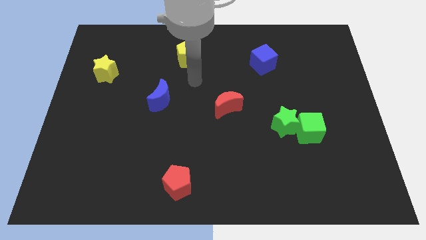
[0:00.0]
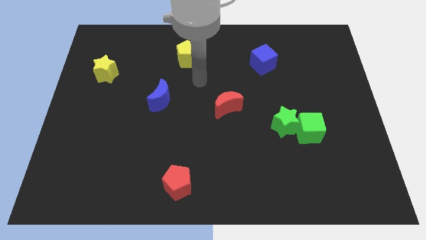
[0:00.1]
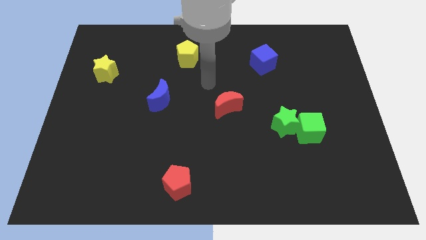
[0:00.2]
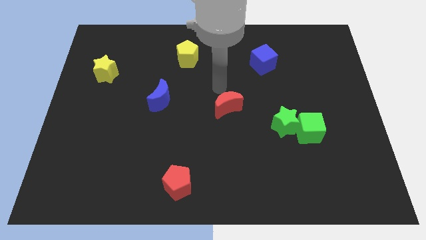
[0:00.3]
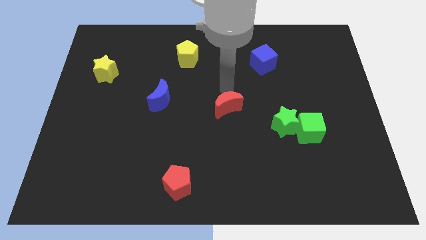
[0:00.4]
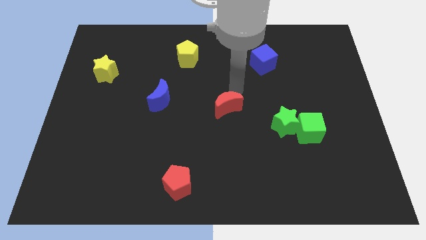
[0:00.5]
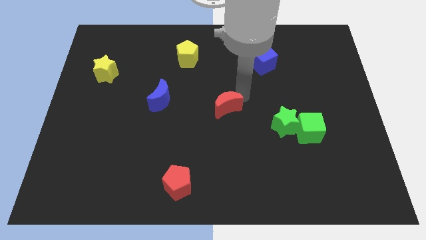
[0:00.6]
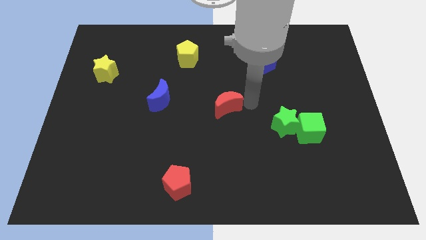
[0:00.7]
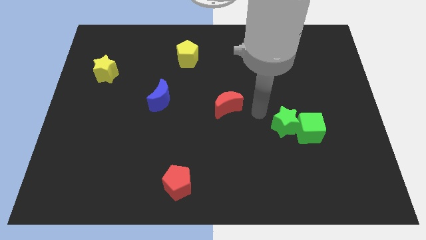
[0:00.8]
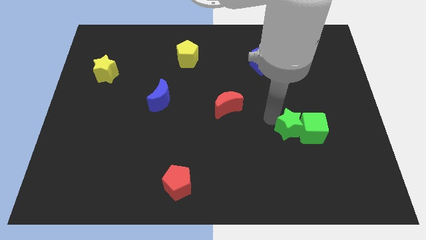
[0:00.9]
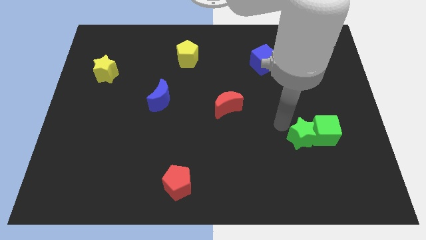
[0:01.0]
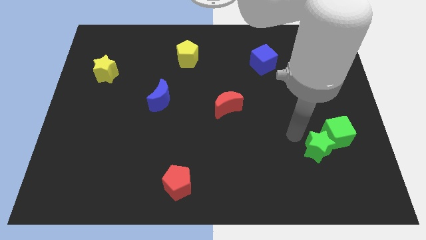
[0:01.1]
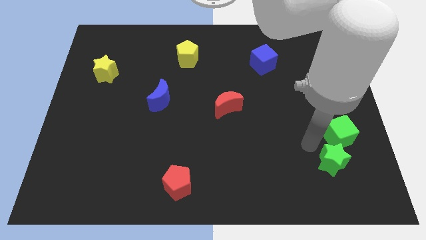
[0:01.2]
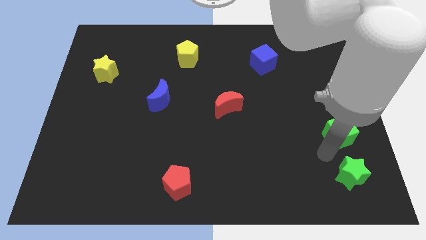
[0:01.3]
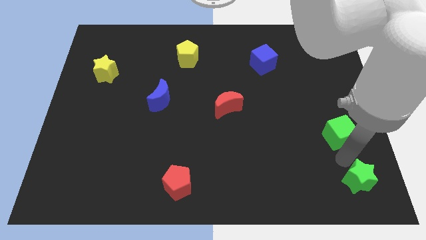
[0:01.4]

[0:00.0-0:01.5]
pull the green cube apart from the green star

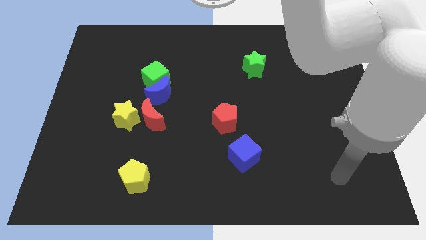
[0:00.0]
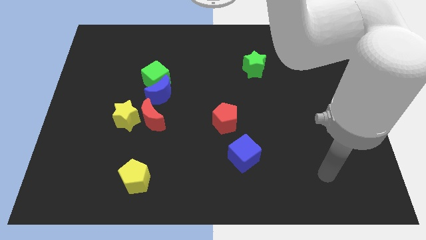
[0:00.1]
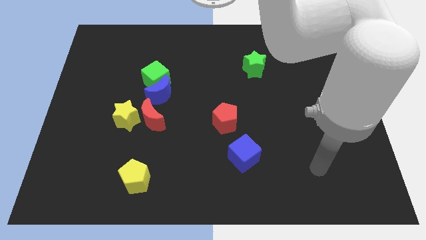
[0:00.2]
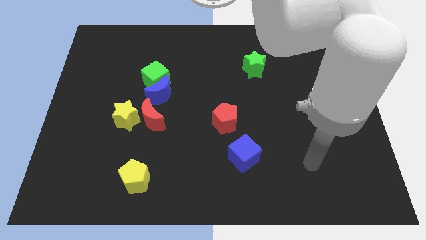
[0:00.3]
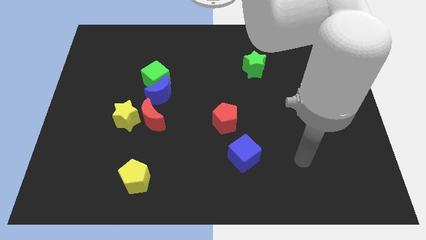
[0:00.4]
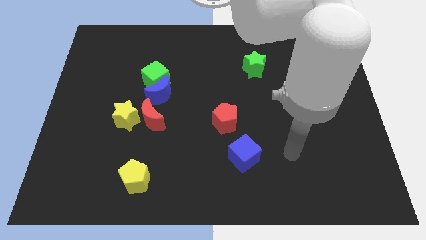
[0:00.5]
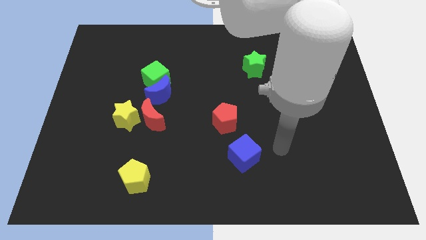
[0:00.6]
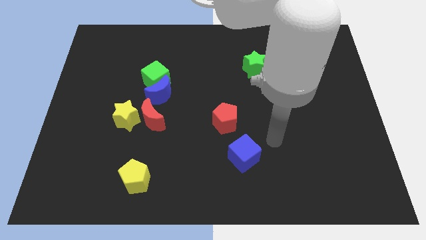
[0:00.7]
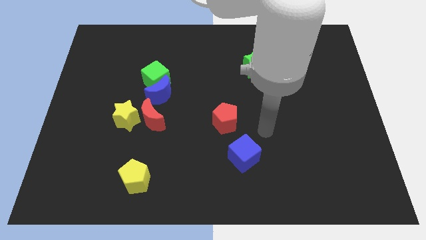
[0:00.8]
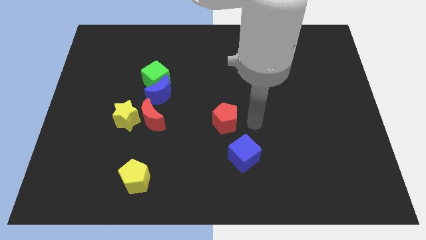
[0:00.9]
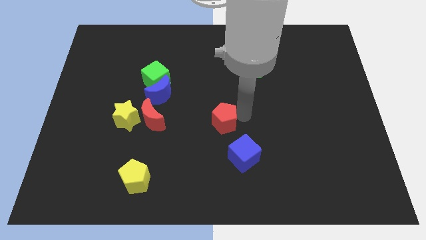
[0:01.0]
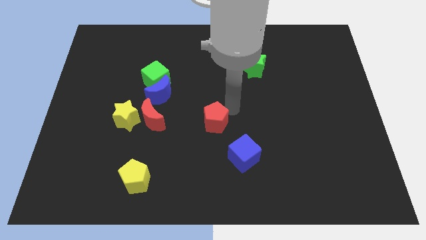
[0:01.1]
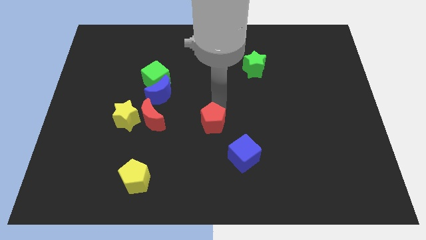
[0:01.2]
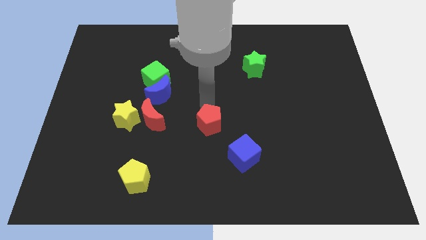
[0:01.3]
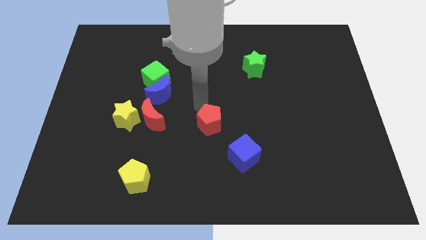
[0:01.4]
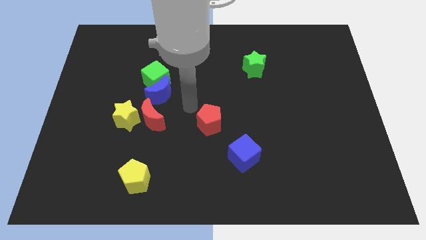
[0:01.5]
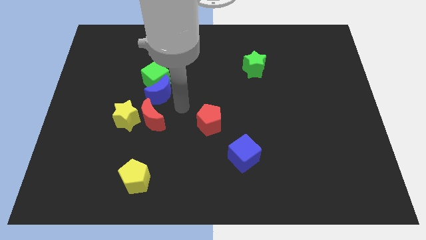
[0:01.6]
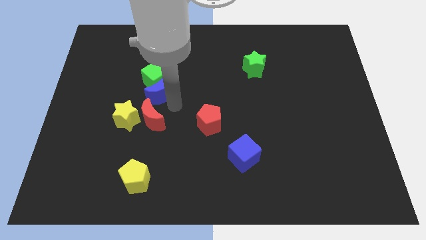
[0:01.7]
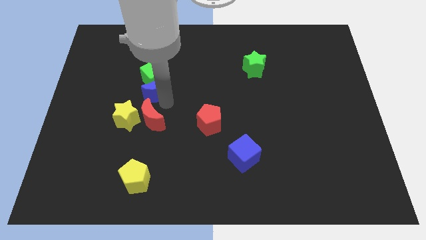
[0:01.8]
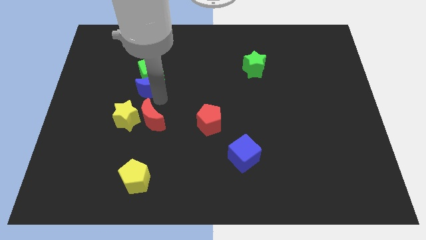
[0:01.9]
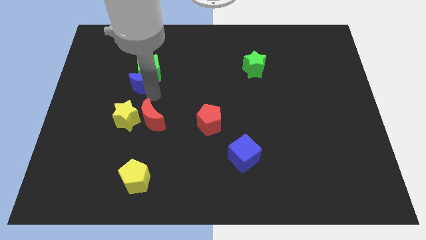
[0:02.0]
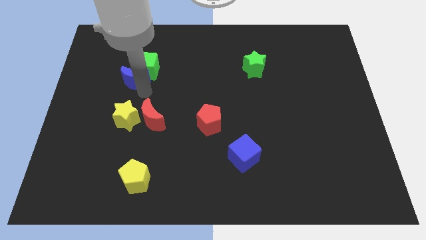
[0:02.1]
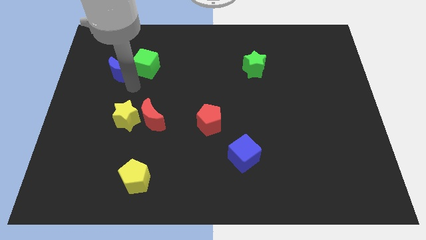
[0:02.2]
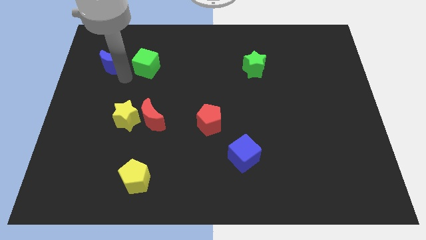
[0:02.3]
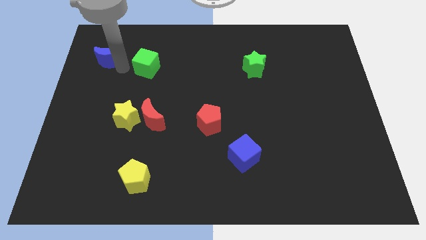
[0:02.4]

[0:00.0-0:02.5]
move the green cube away from the blue moon

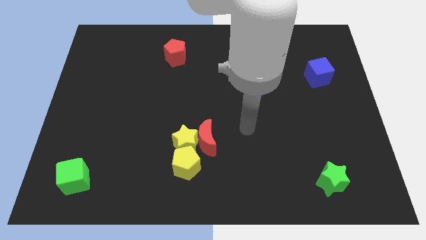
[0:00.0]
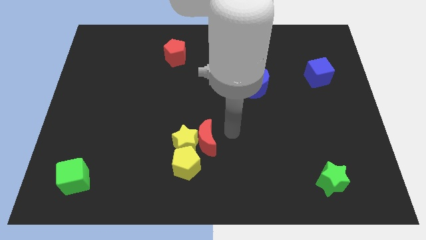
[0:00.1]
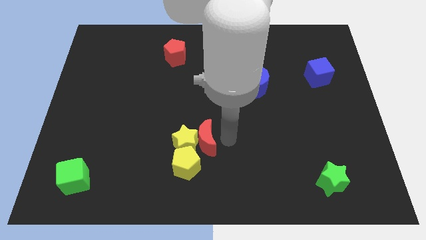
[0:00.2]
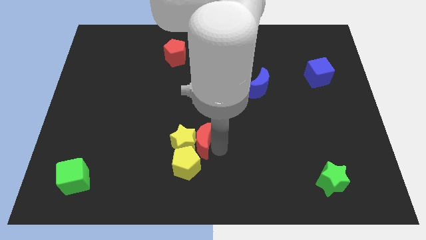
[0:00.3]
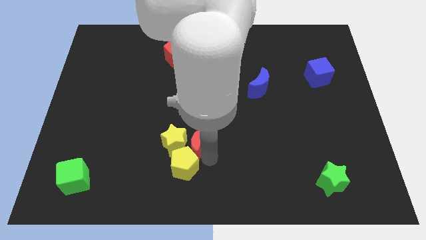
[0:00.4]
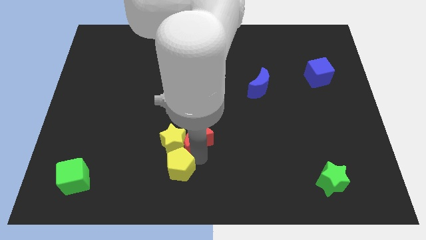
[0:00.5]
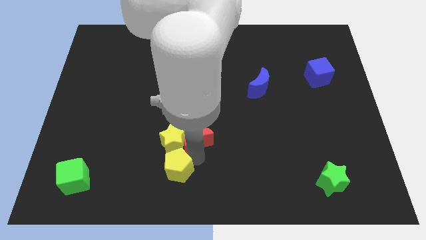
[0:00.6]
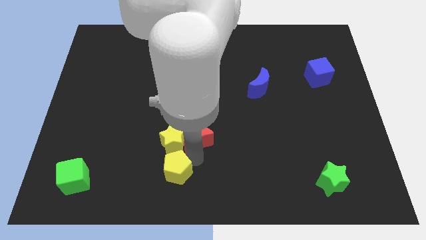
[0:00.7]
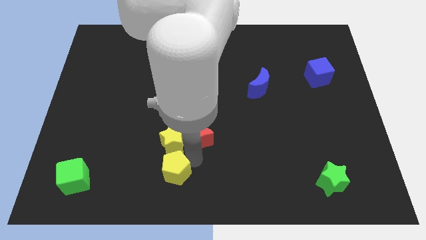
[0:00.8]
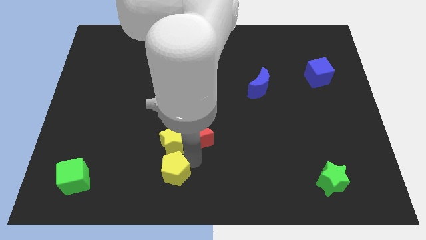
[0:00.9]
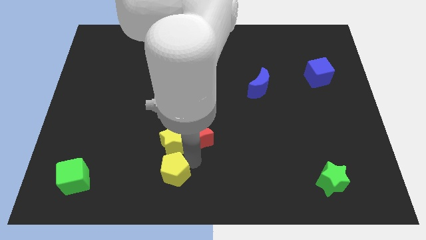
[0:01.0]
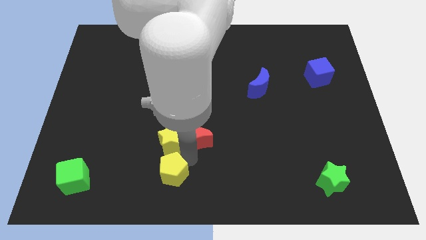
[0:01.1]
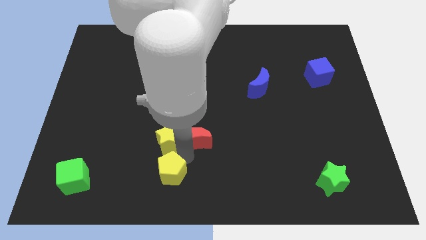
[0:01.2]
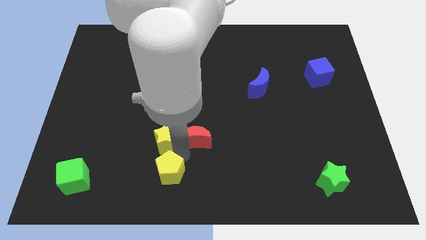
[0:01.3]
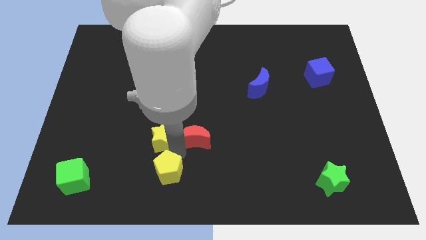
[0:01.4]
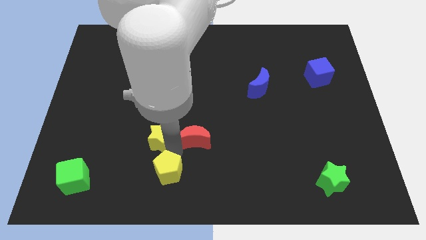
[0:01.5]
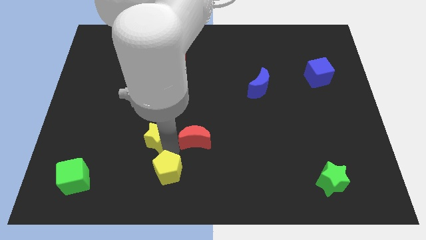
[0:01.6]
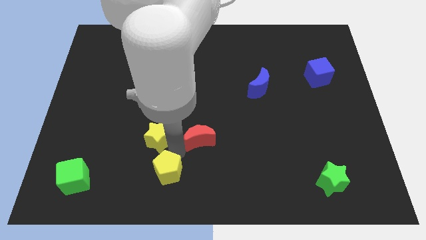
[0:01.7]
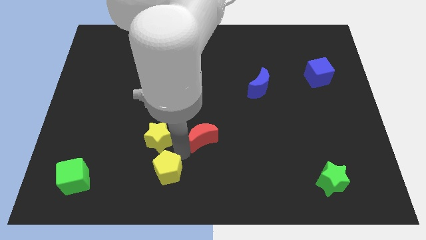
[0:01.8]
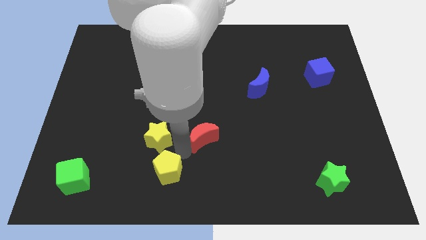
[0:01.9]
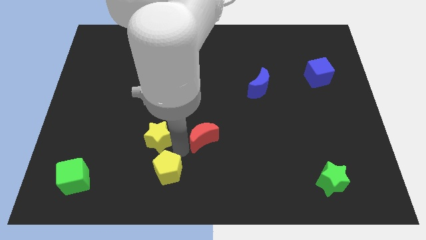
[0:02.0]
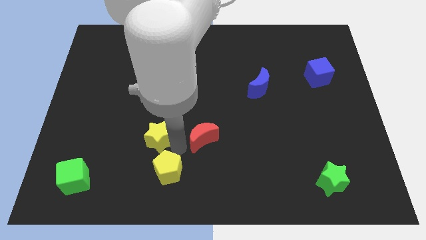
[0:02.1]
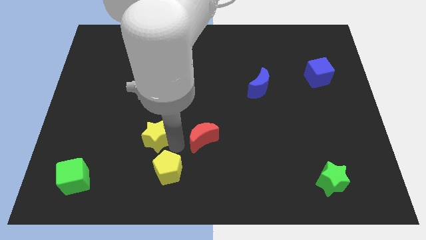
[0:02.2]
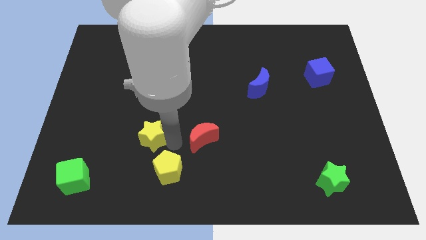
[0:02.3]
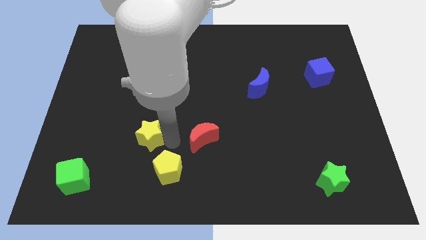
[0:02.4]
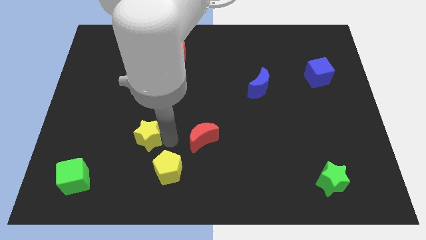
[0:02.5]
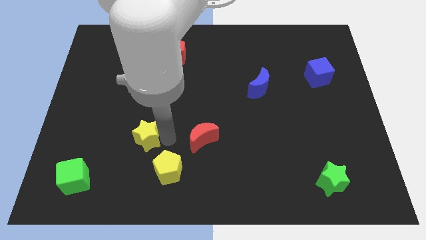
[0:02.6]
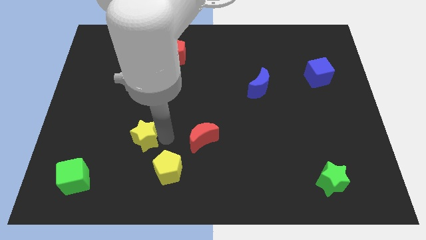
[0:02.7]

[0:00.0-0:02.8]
move the yellow star away from the red moon and yellow pentagon

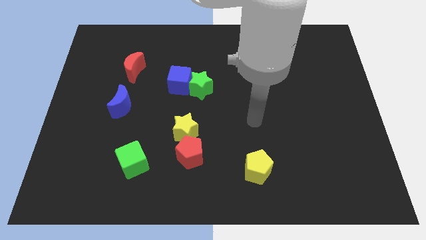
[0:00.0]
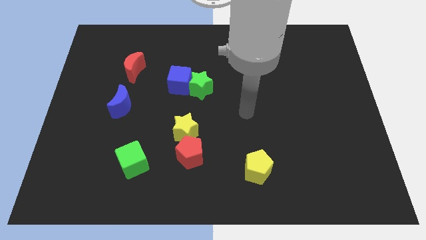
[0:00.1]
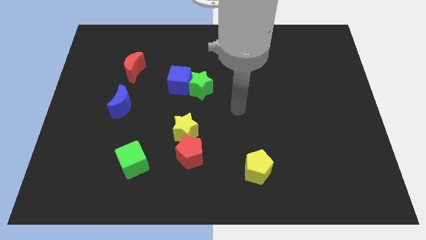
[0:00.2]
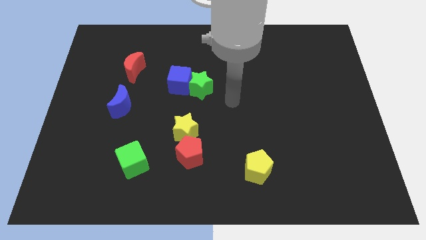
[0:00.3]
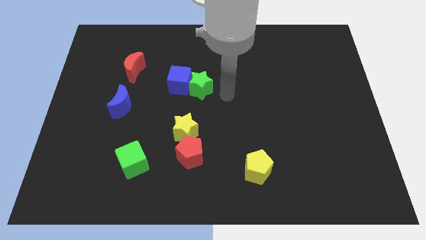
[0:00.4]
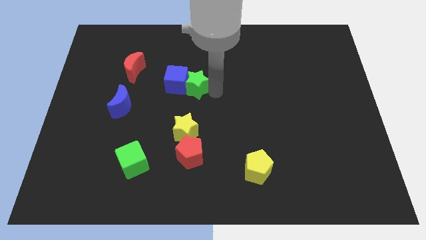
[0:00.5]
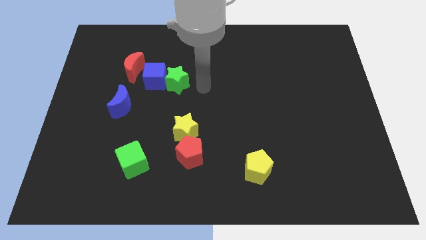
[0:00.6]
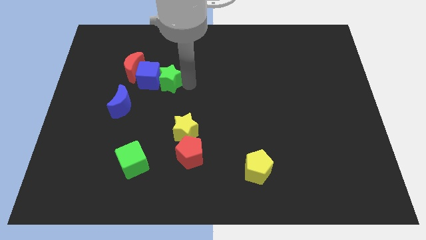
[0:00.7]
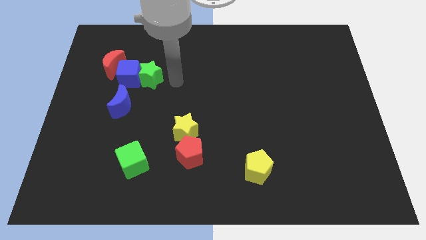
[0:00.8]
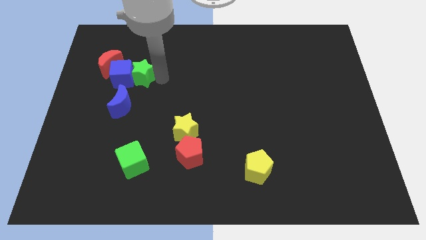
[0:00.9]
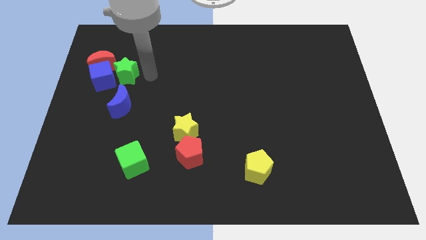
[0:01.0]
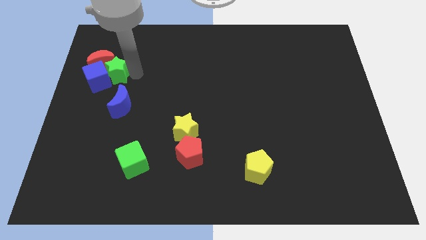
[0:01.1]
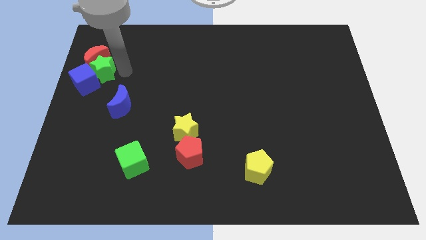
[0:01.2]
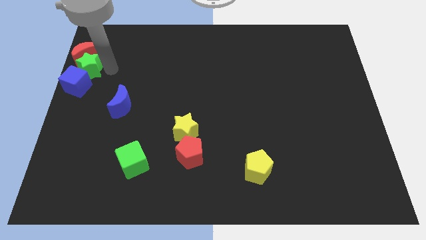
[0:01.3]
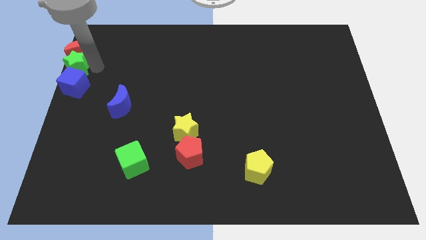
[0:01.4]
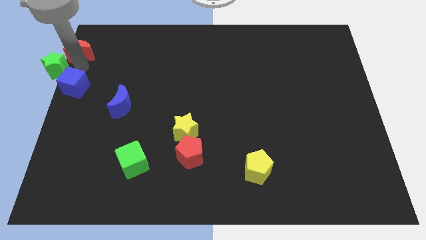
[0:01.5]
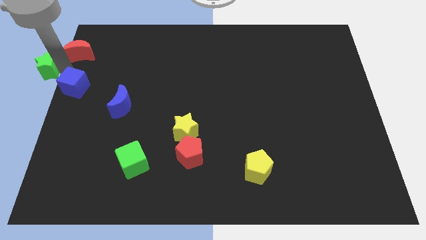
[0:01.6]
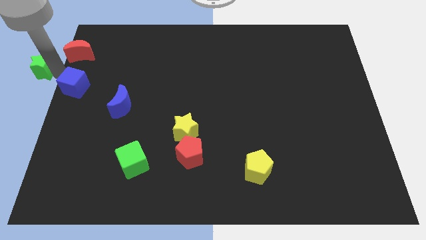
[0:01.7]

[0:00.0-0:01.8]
separate the blue cube from the green star

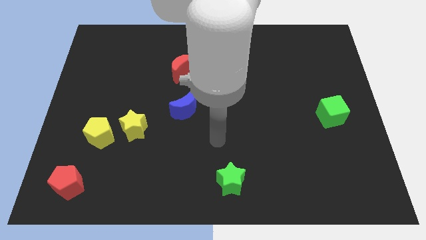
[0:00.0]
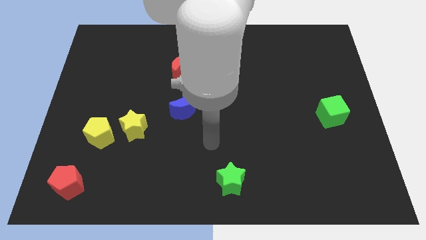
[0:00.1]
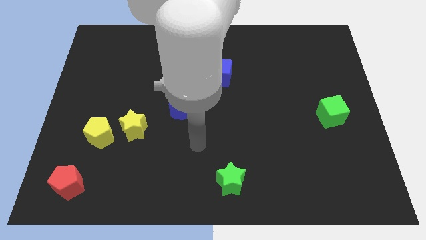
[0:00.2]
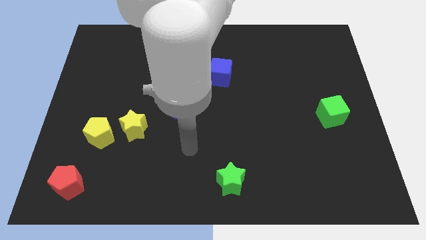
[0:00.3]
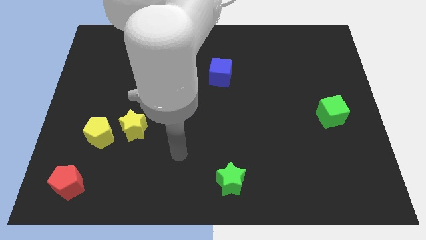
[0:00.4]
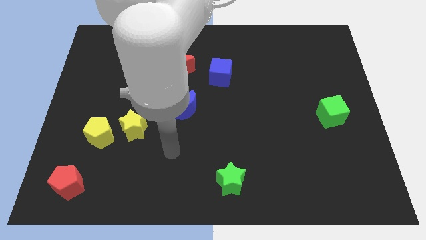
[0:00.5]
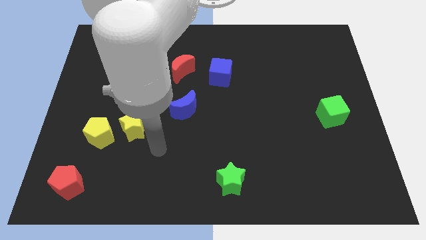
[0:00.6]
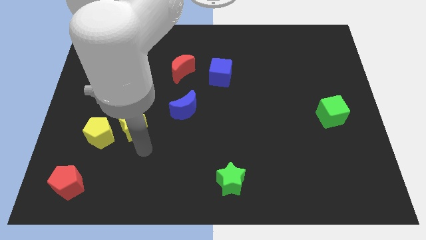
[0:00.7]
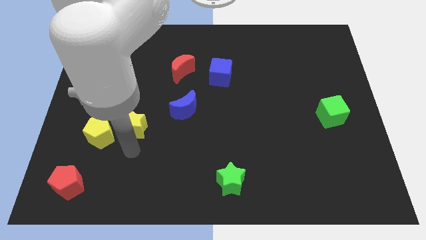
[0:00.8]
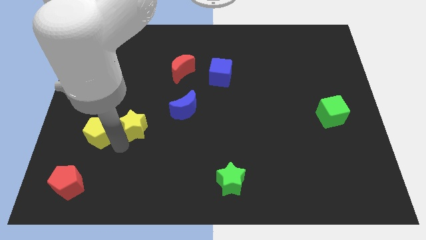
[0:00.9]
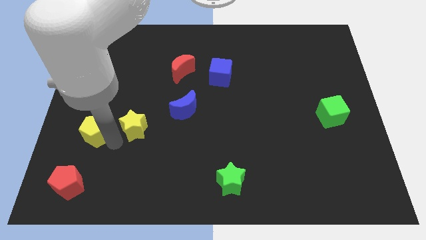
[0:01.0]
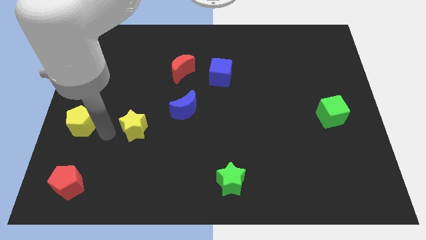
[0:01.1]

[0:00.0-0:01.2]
separate the yellow star from the yellow pentagon
